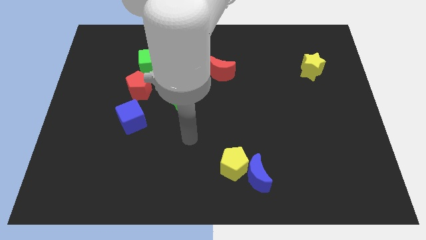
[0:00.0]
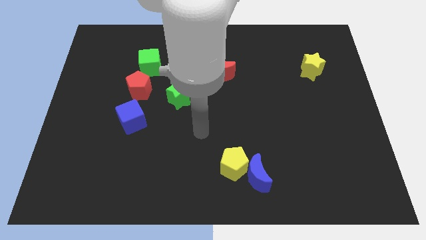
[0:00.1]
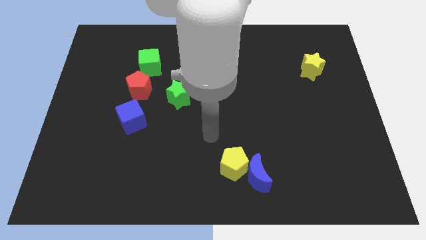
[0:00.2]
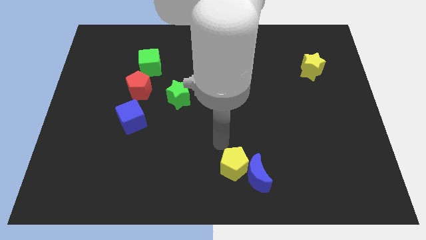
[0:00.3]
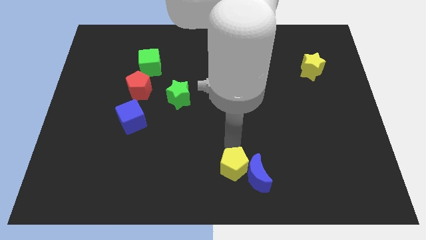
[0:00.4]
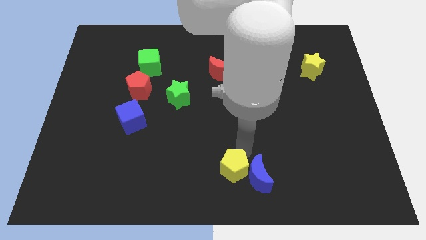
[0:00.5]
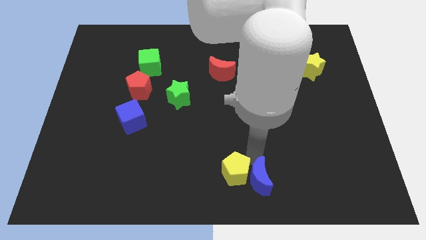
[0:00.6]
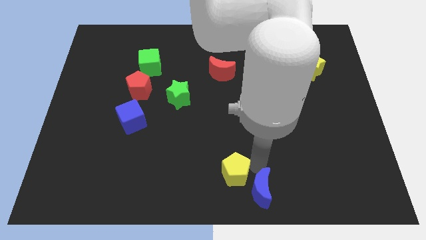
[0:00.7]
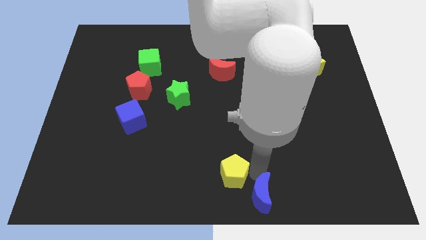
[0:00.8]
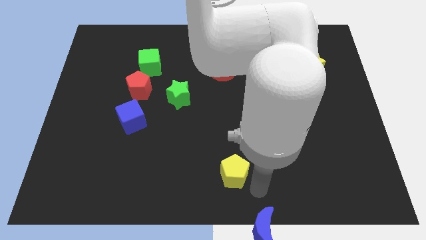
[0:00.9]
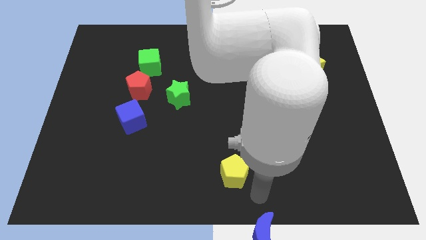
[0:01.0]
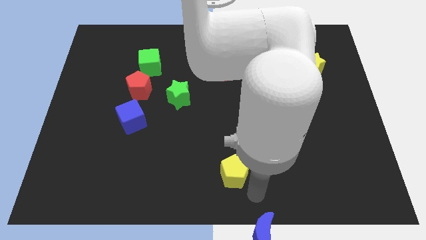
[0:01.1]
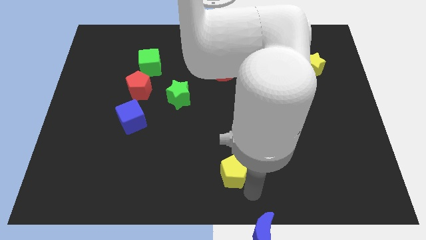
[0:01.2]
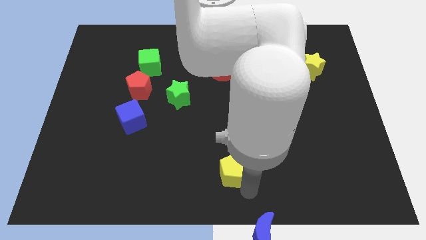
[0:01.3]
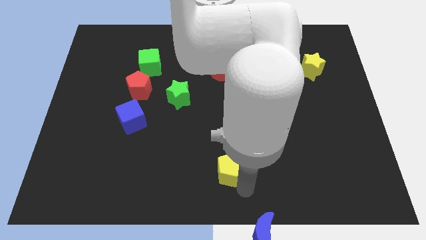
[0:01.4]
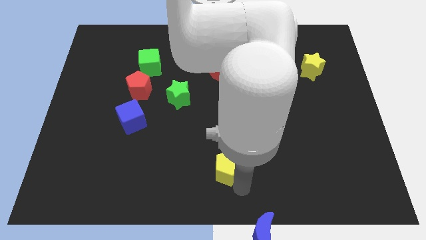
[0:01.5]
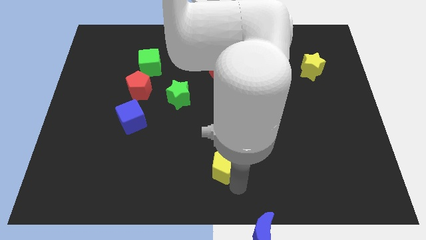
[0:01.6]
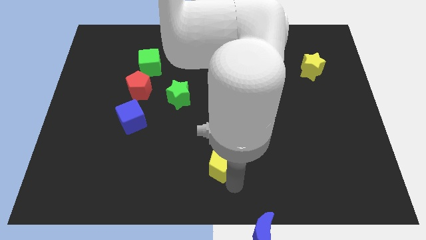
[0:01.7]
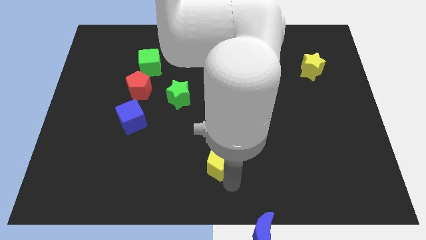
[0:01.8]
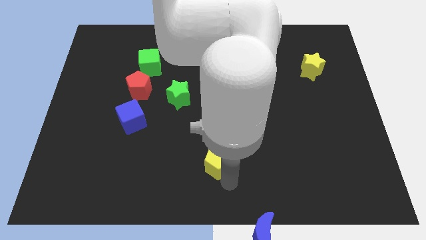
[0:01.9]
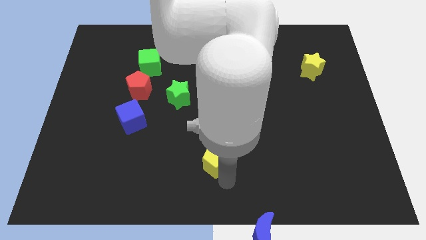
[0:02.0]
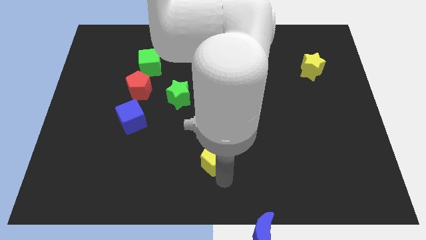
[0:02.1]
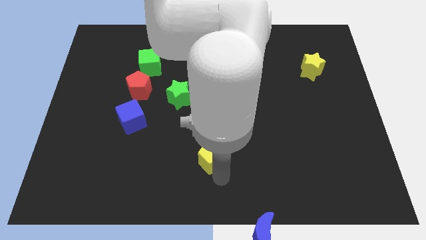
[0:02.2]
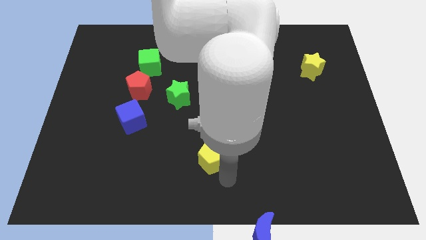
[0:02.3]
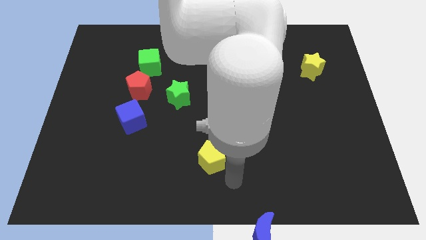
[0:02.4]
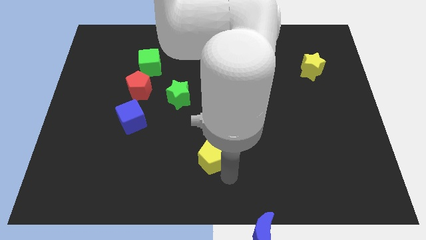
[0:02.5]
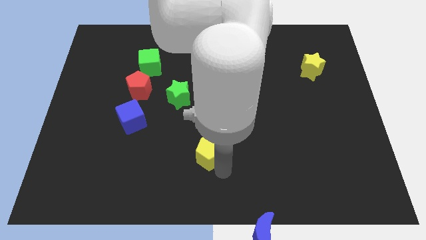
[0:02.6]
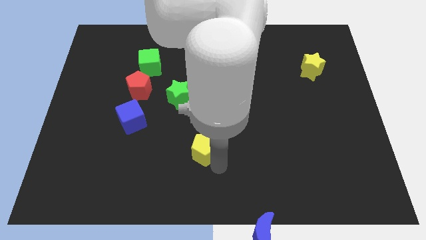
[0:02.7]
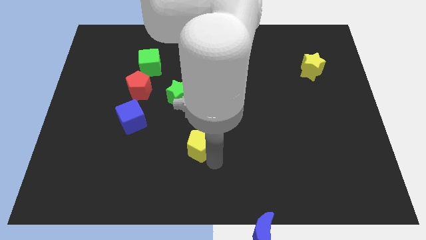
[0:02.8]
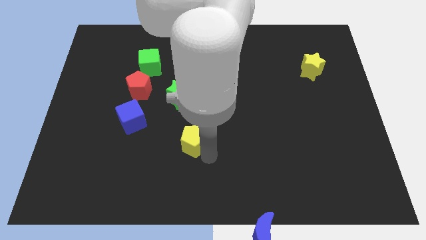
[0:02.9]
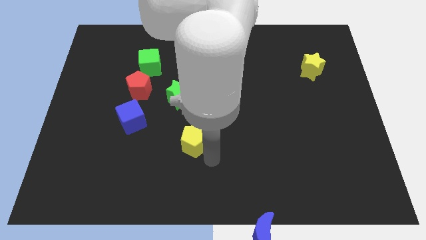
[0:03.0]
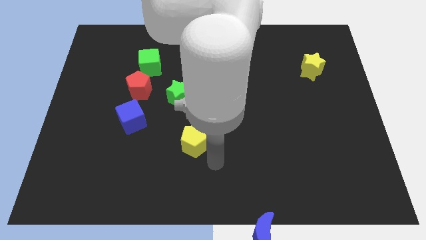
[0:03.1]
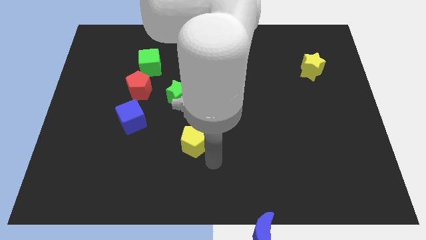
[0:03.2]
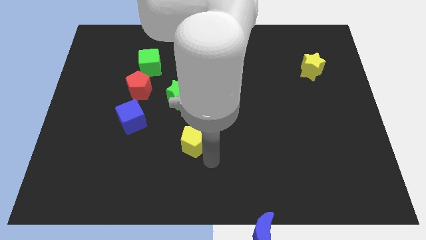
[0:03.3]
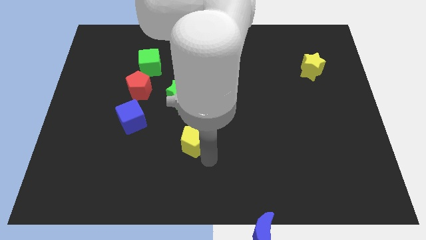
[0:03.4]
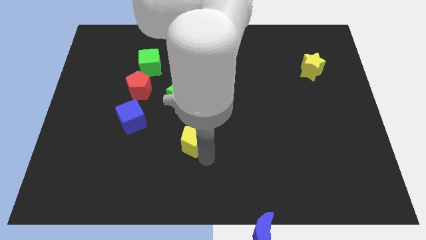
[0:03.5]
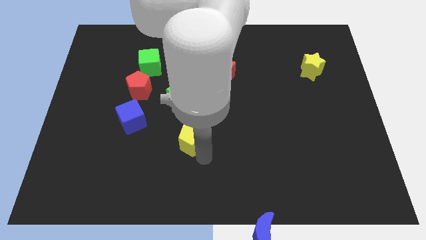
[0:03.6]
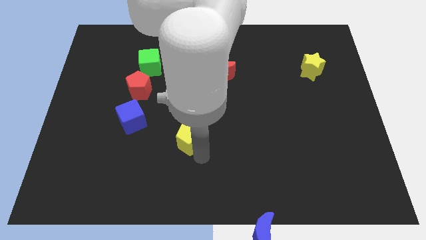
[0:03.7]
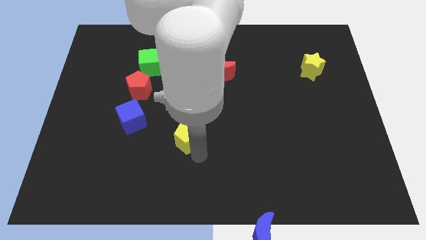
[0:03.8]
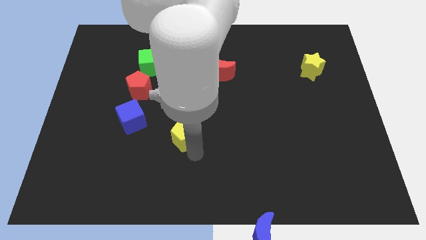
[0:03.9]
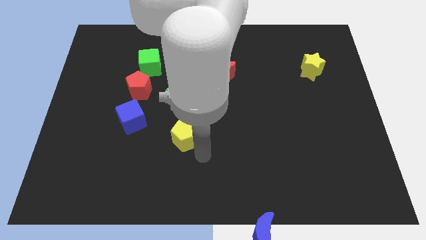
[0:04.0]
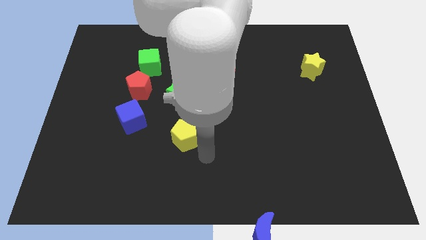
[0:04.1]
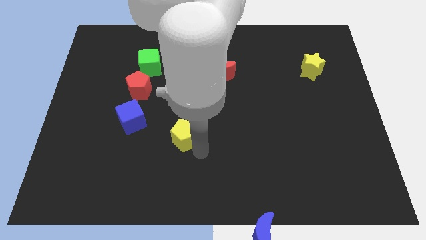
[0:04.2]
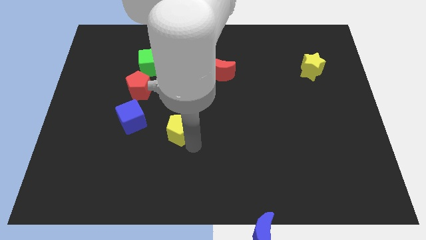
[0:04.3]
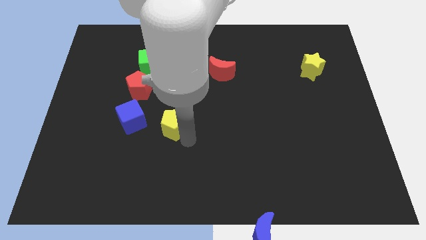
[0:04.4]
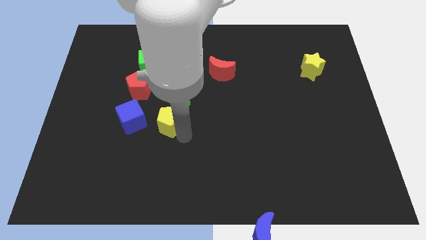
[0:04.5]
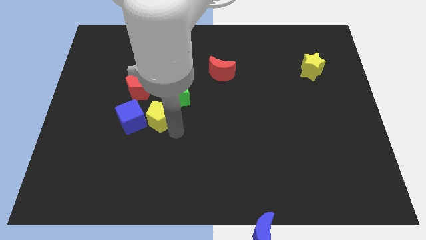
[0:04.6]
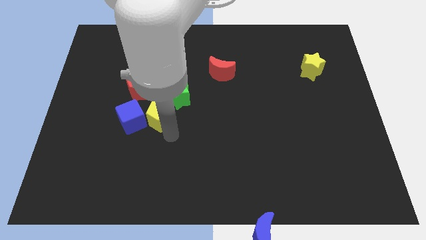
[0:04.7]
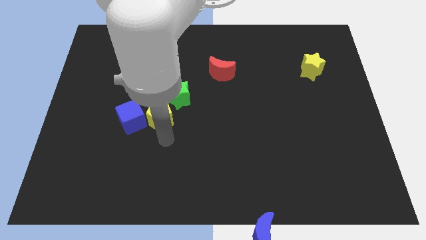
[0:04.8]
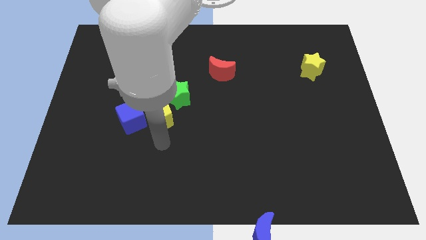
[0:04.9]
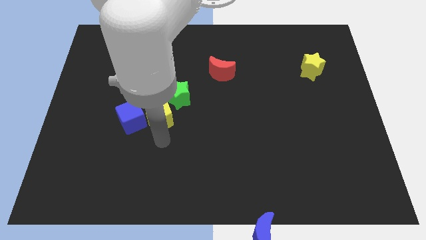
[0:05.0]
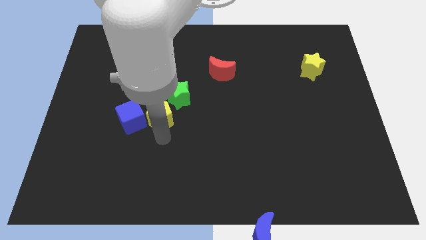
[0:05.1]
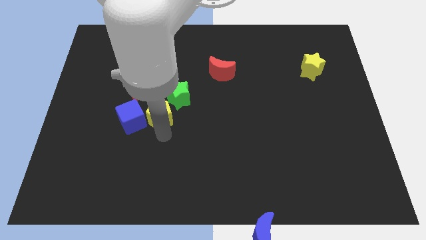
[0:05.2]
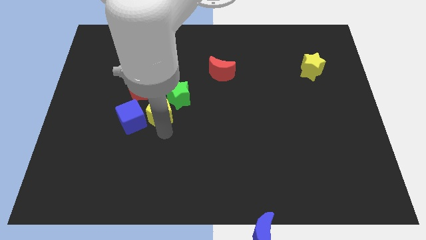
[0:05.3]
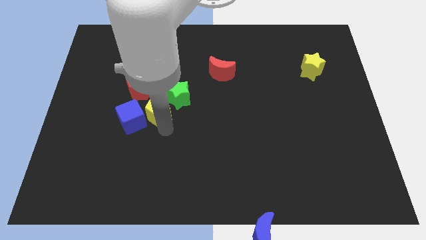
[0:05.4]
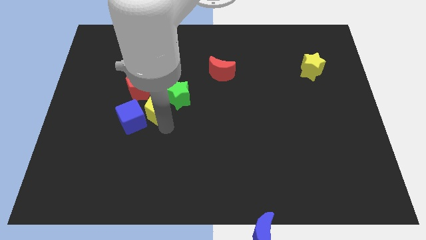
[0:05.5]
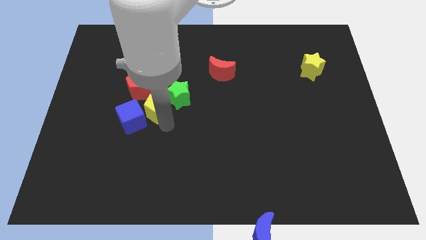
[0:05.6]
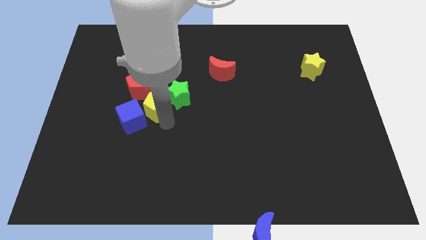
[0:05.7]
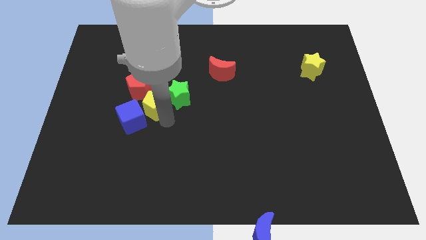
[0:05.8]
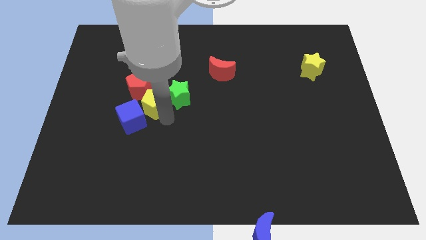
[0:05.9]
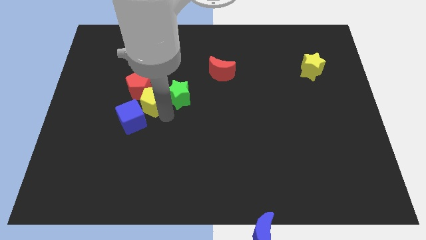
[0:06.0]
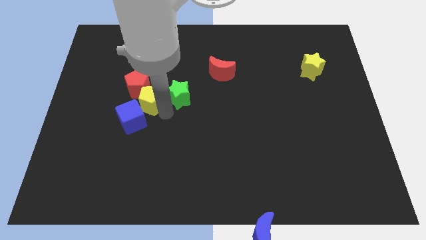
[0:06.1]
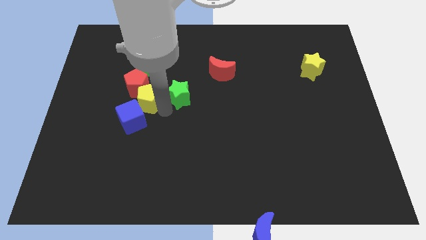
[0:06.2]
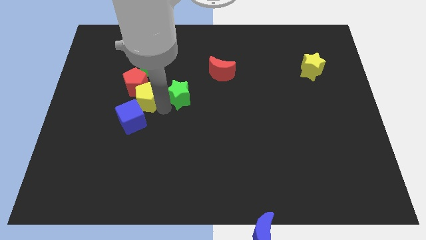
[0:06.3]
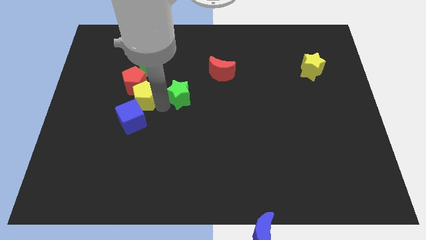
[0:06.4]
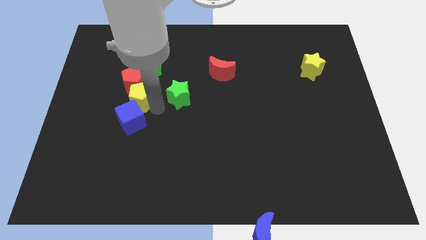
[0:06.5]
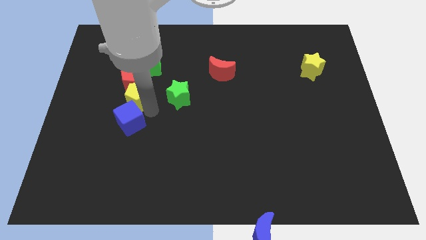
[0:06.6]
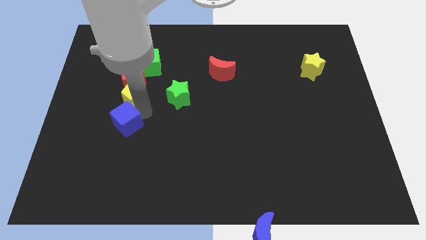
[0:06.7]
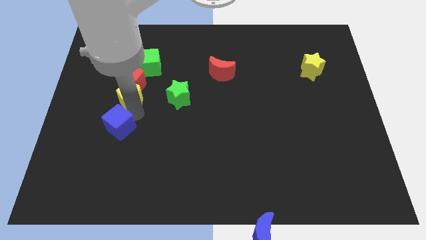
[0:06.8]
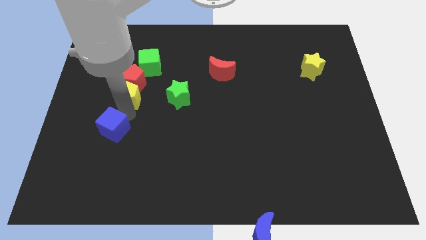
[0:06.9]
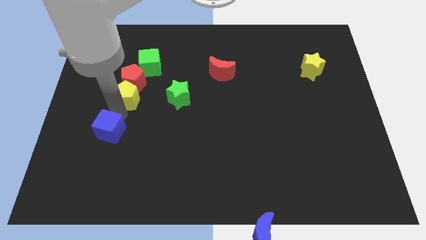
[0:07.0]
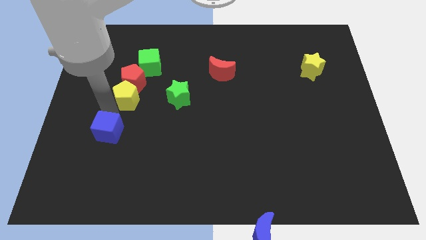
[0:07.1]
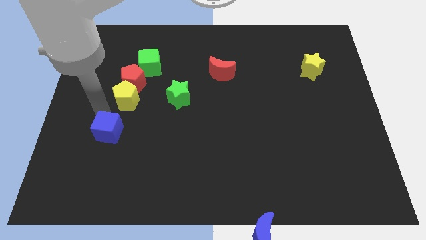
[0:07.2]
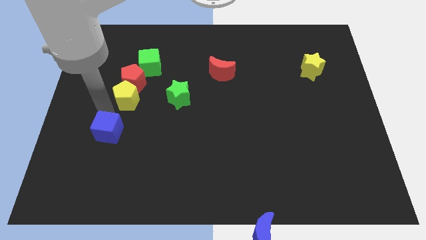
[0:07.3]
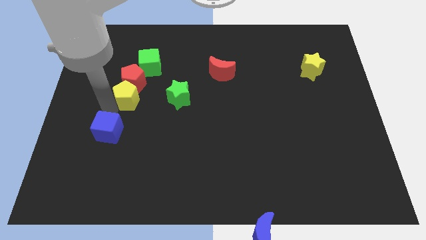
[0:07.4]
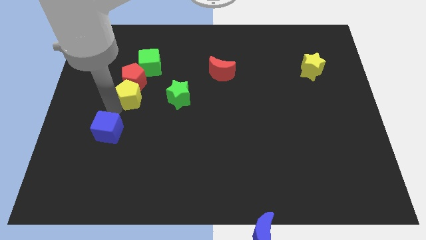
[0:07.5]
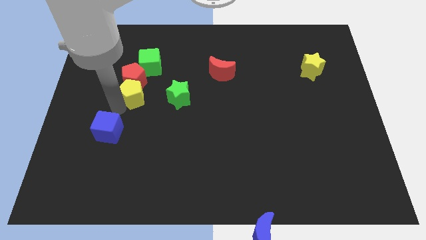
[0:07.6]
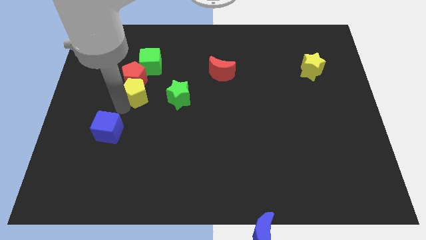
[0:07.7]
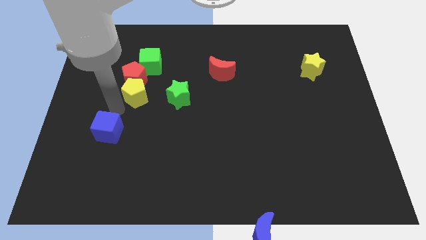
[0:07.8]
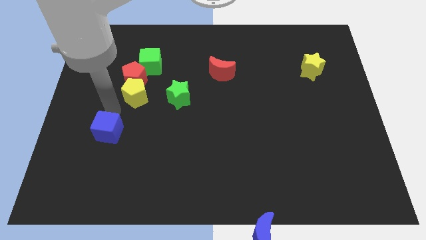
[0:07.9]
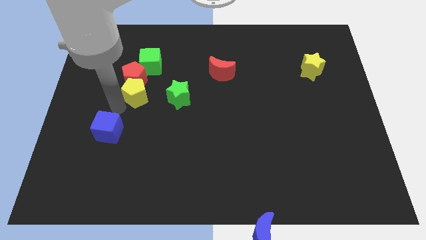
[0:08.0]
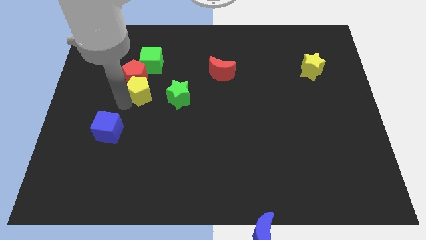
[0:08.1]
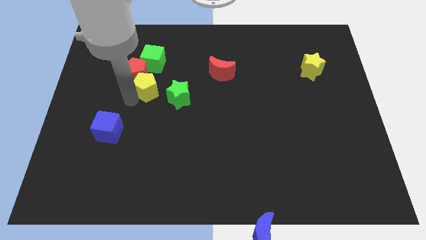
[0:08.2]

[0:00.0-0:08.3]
slide the yellow pentagon diagonally up and to the left of the green star
